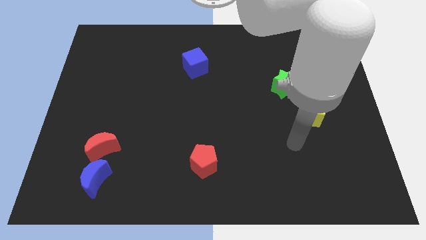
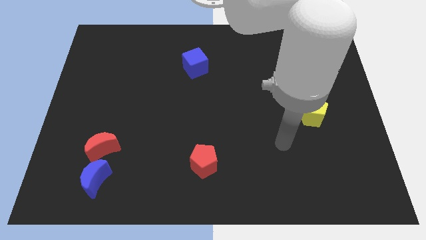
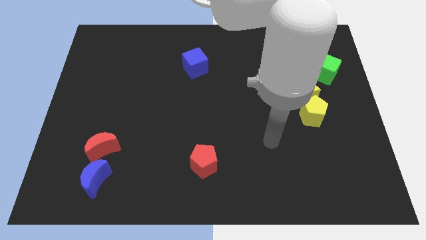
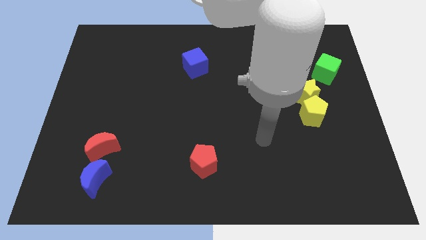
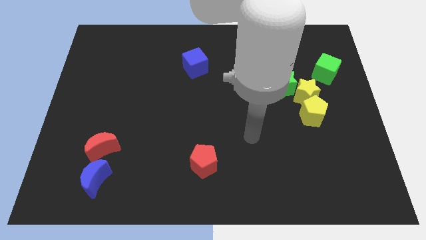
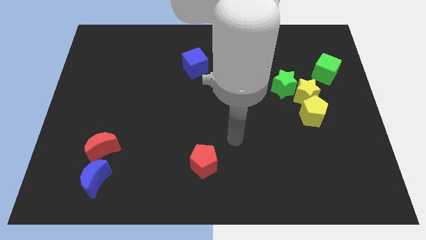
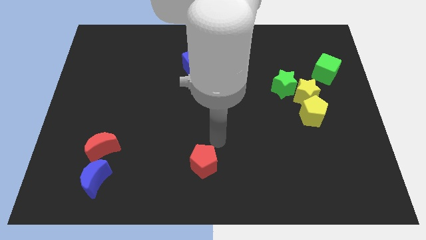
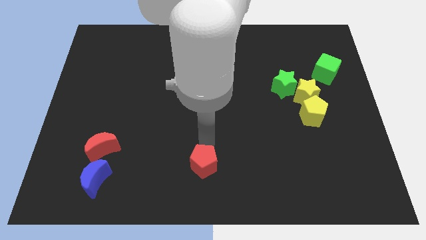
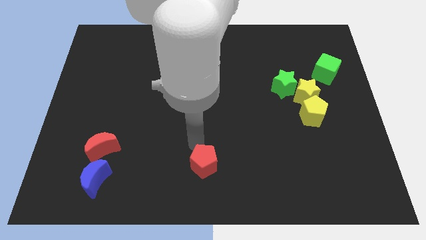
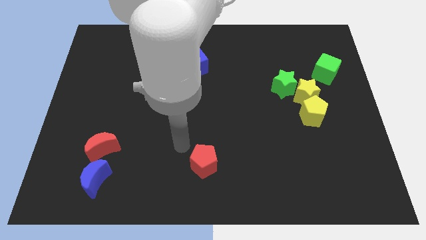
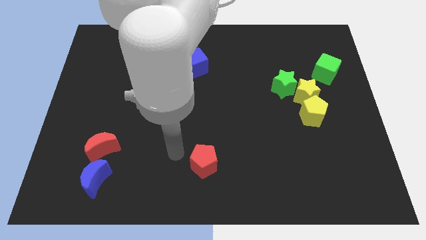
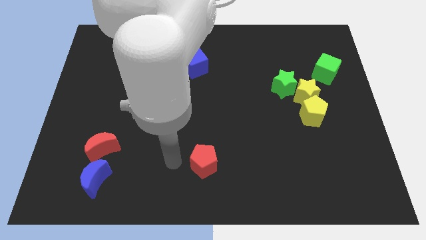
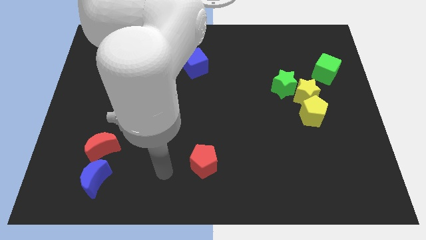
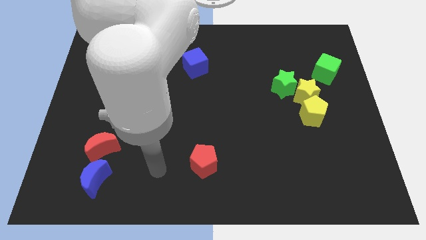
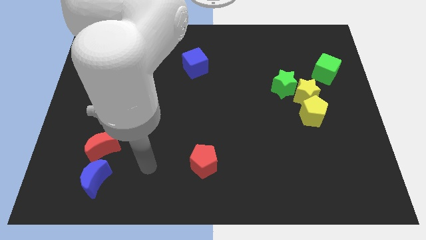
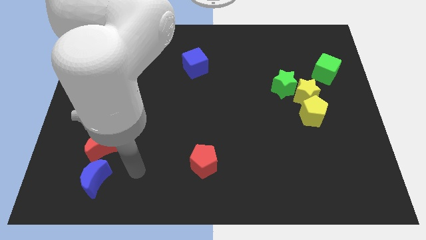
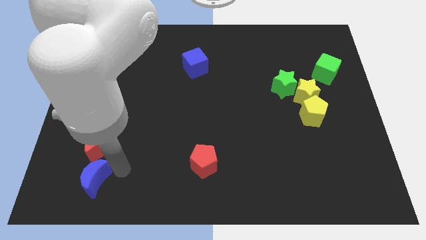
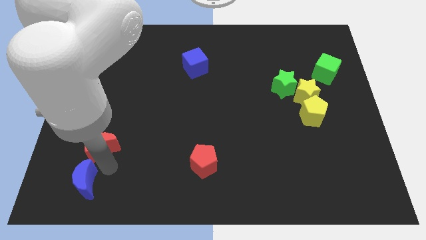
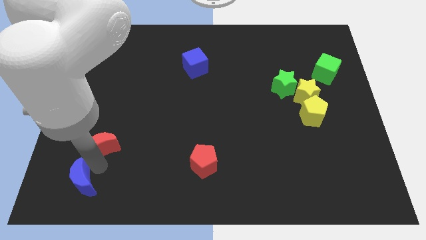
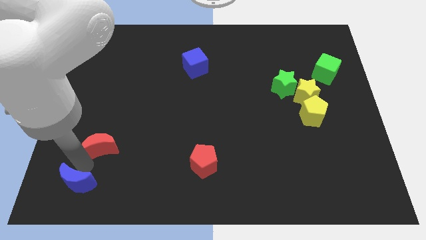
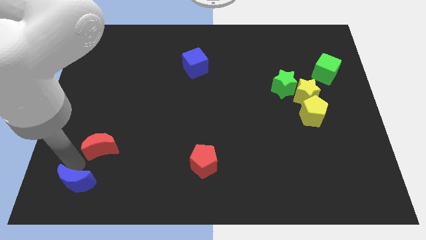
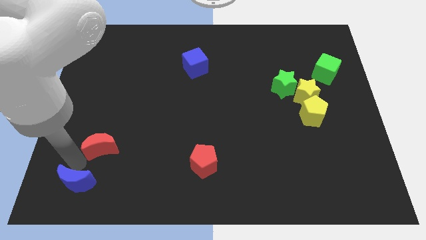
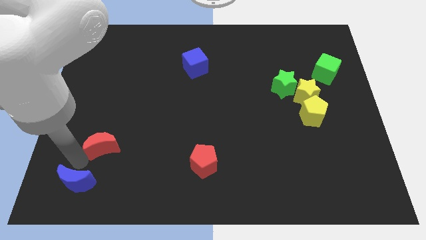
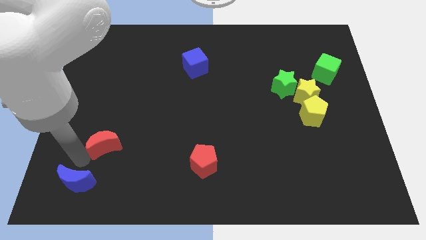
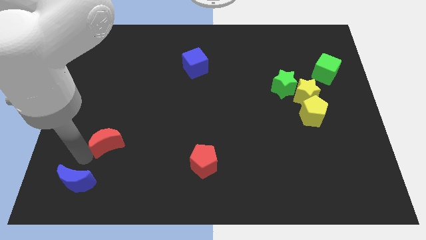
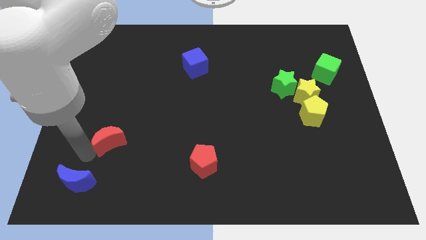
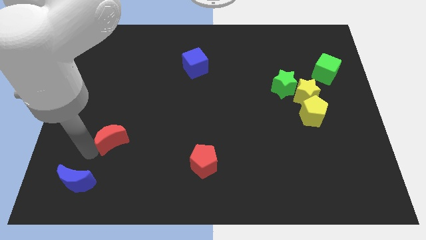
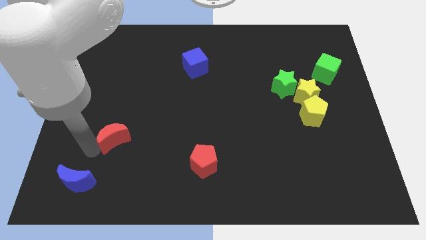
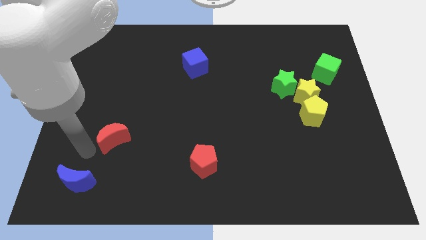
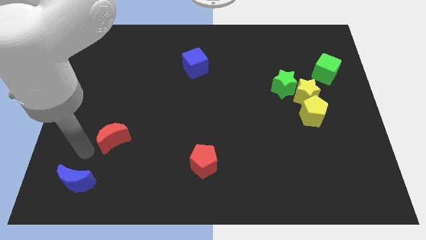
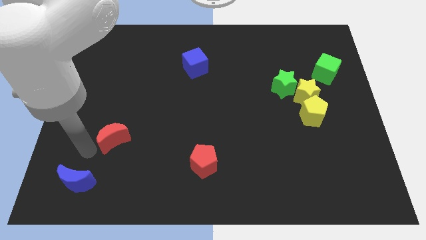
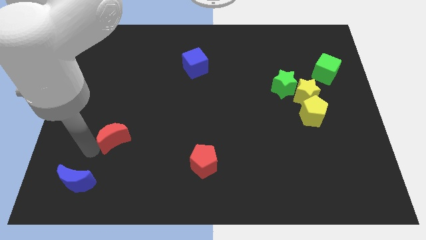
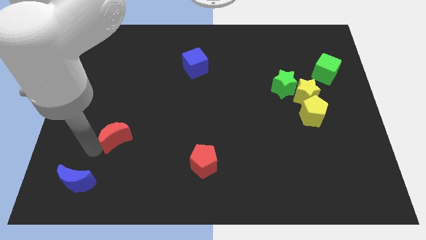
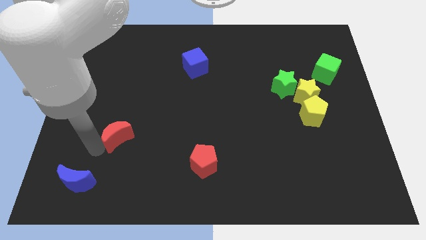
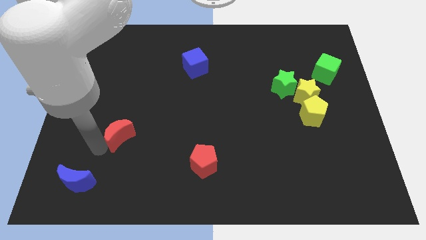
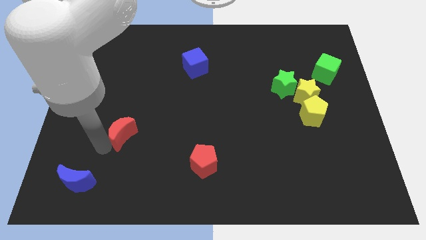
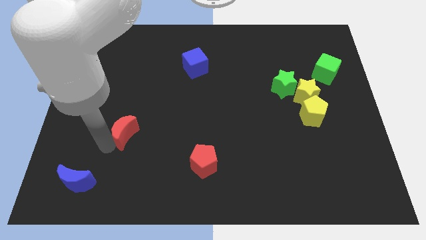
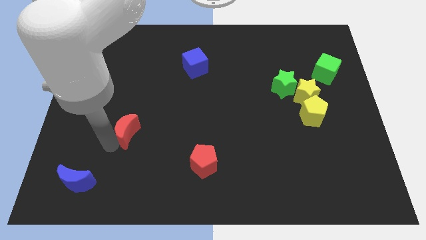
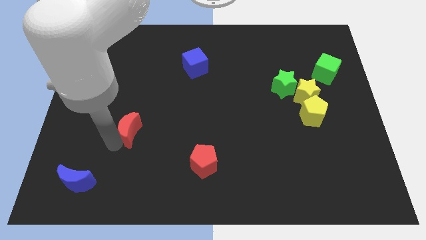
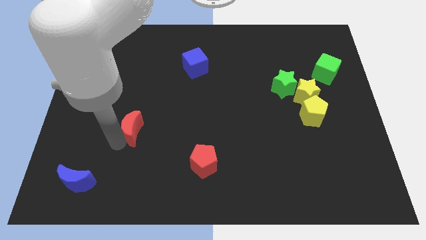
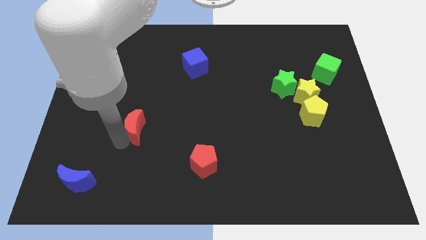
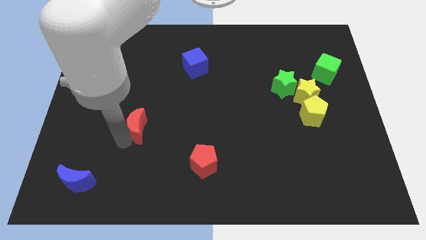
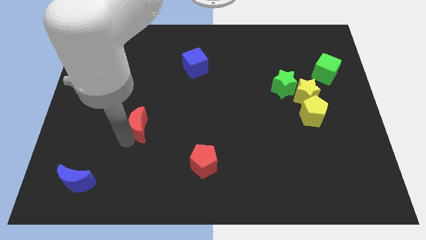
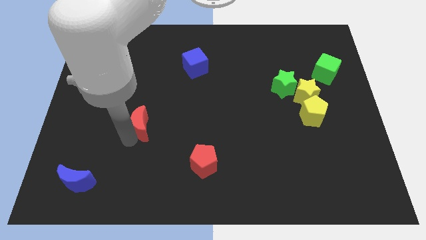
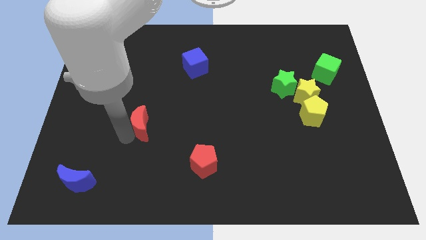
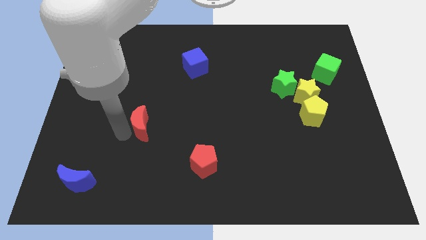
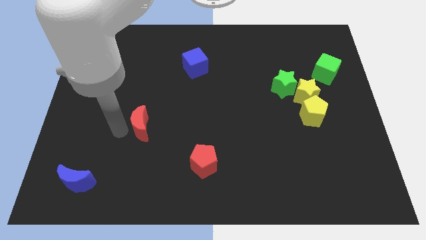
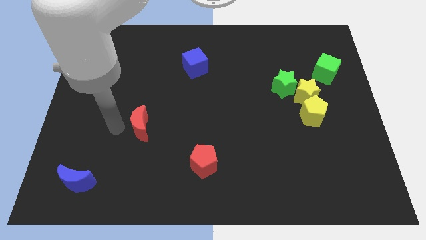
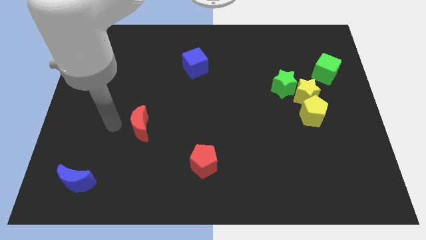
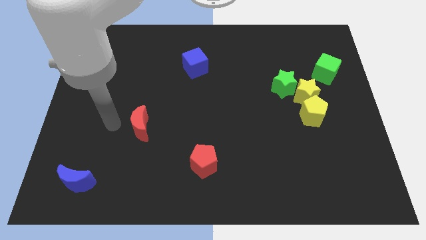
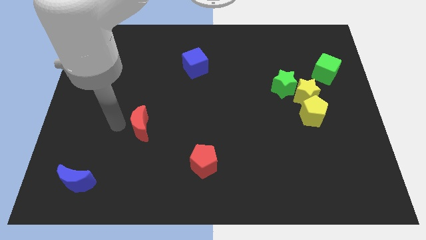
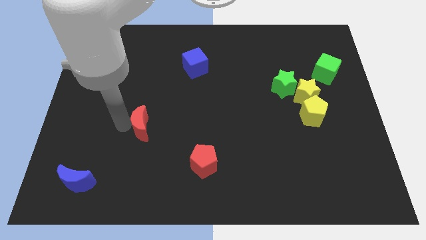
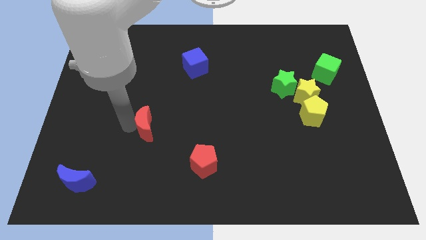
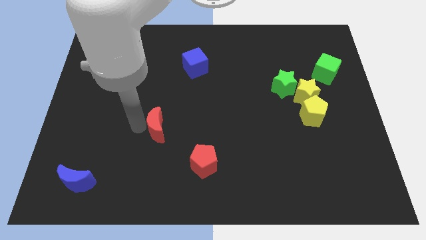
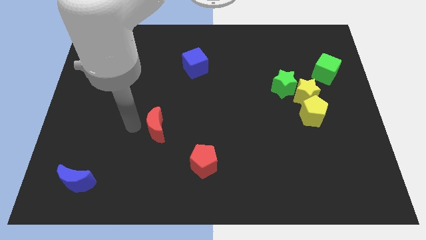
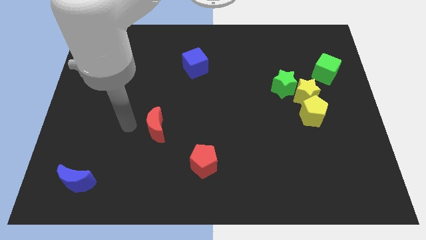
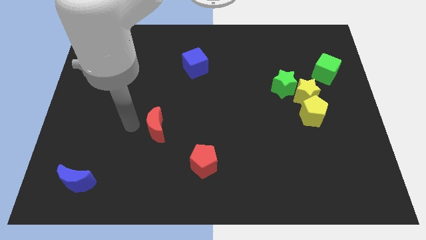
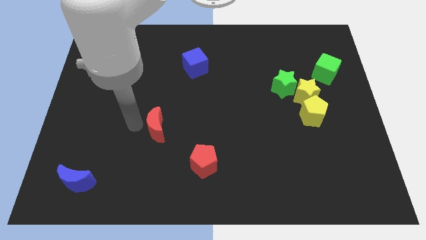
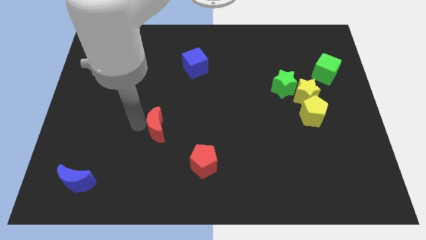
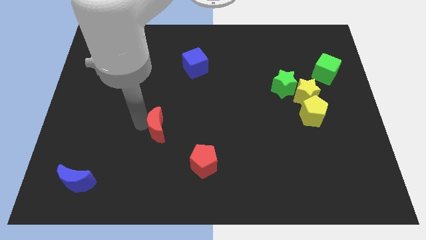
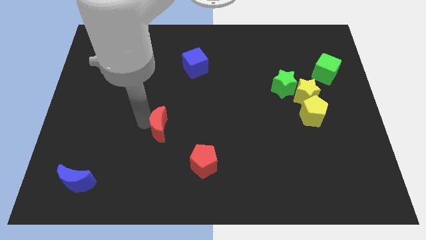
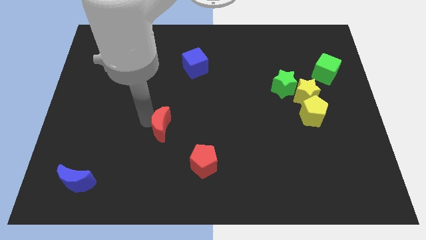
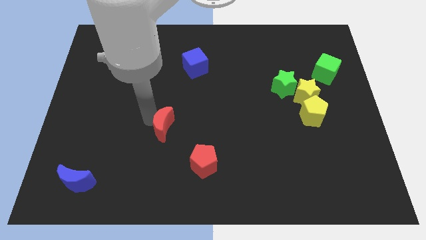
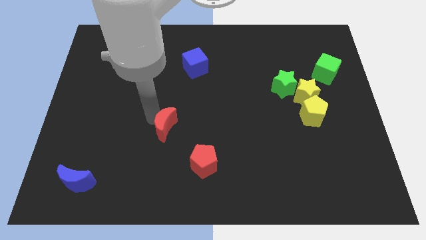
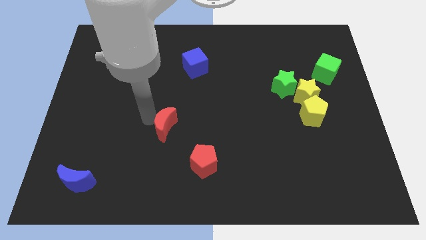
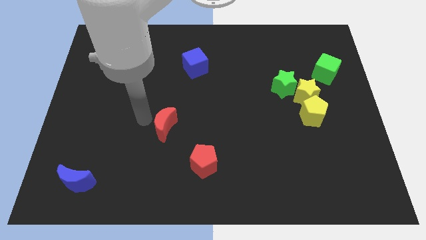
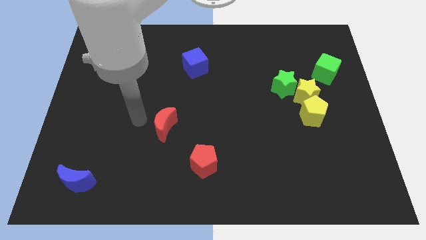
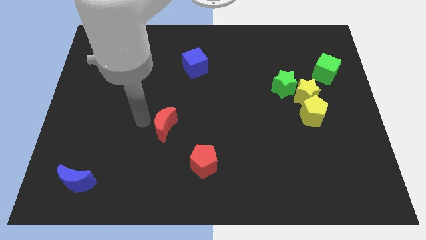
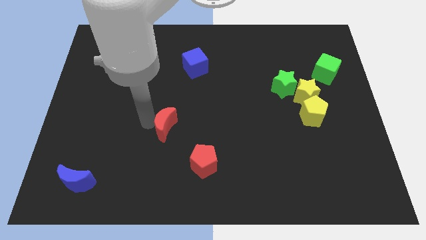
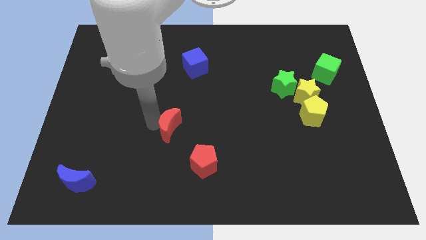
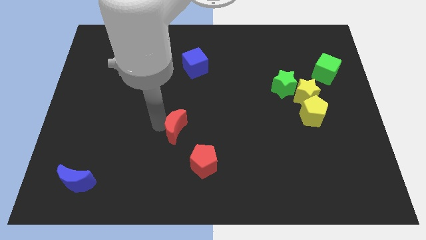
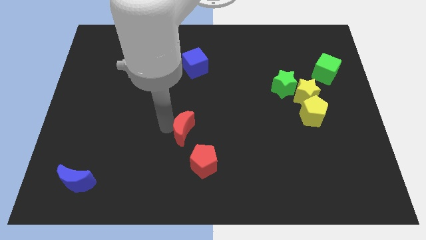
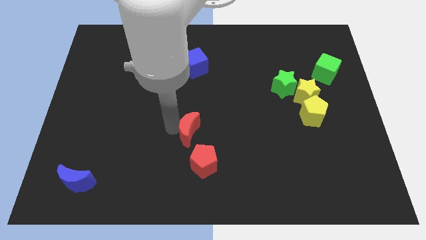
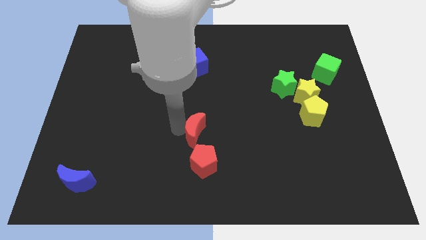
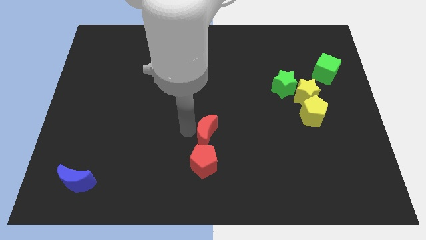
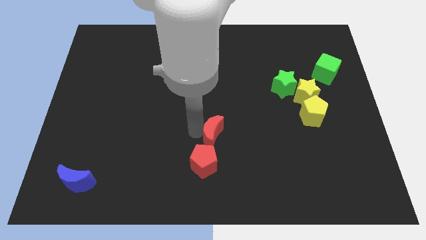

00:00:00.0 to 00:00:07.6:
slide the red moon to the top right side of the red pentagon
